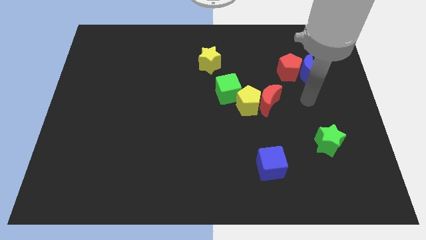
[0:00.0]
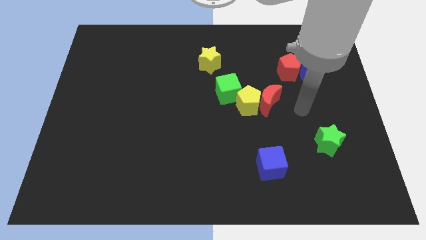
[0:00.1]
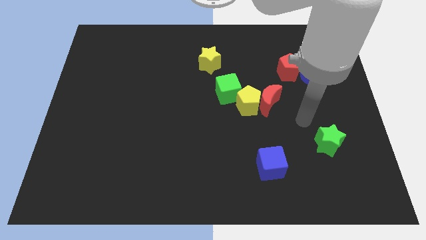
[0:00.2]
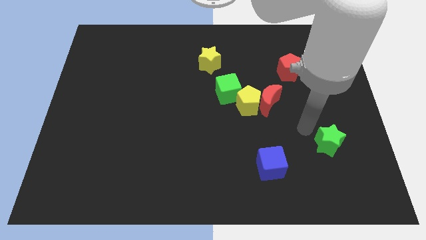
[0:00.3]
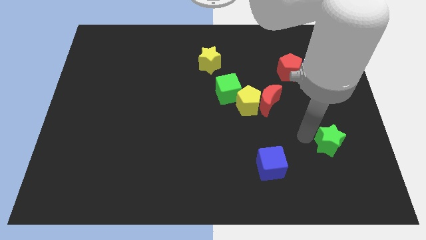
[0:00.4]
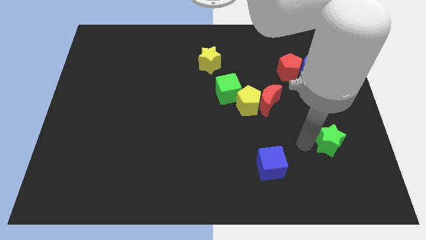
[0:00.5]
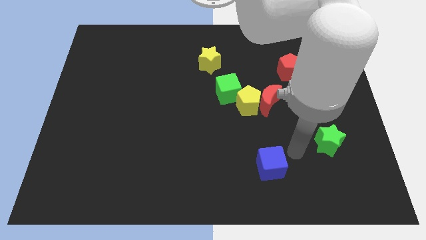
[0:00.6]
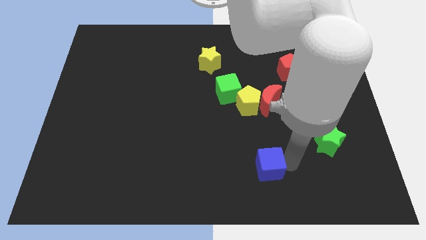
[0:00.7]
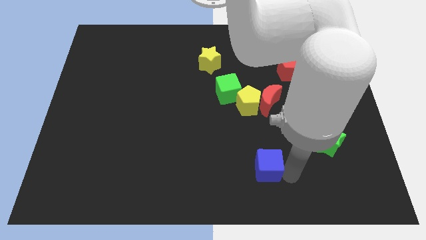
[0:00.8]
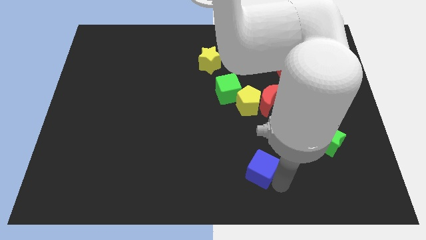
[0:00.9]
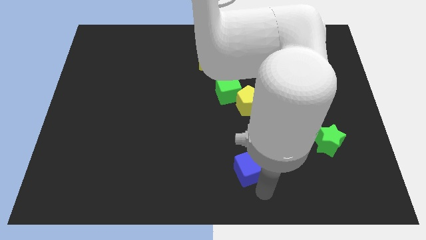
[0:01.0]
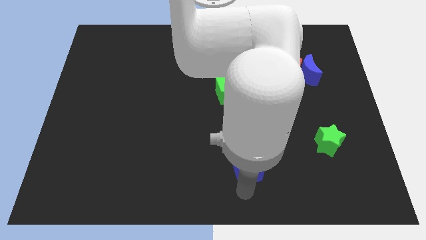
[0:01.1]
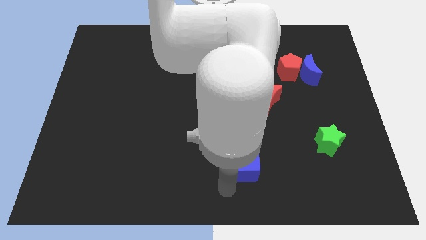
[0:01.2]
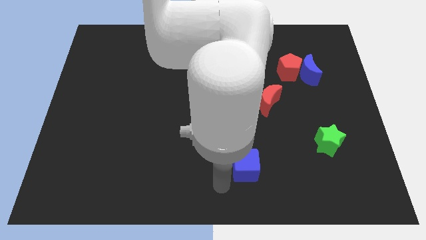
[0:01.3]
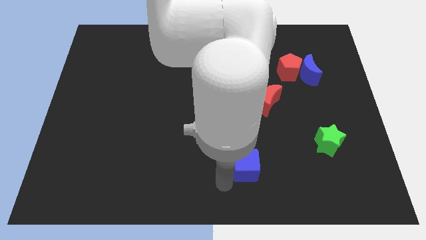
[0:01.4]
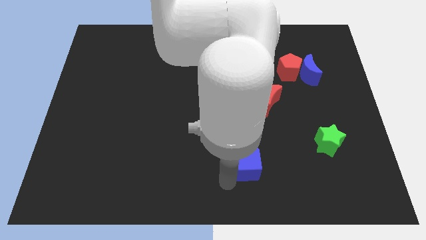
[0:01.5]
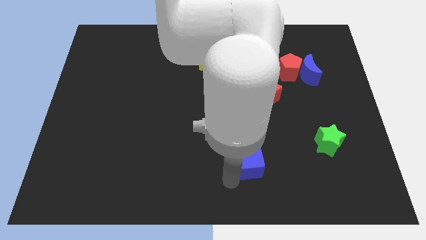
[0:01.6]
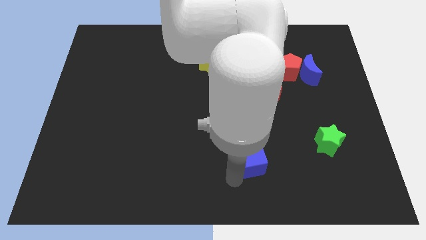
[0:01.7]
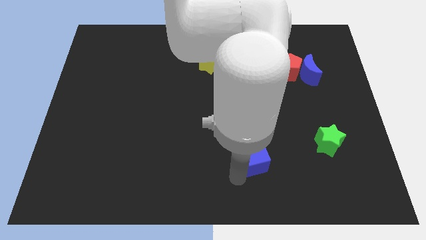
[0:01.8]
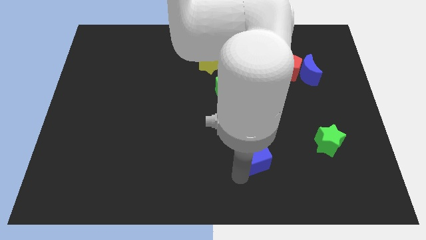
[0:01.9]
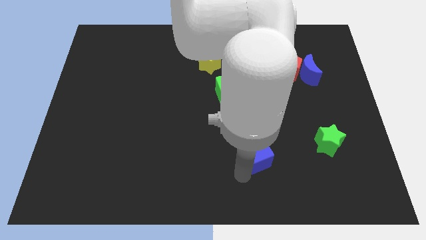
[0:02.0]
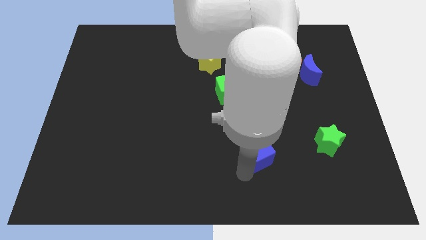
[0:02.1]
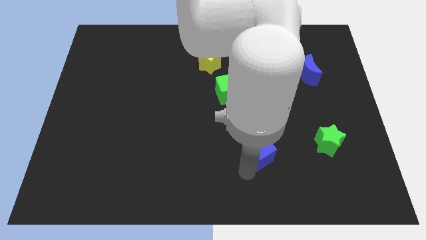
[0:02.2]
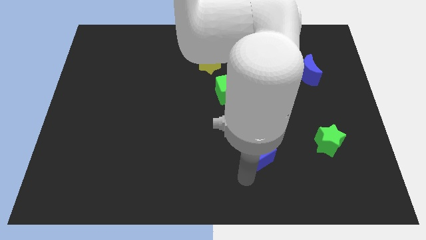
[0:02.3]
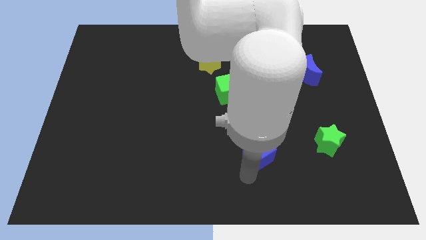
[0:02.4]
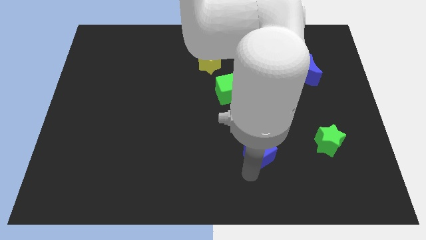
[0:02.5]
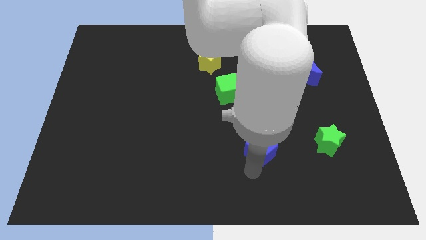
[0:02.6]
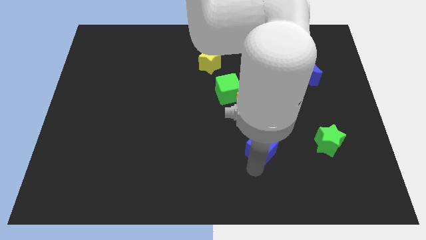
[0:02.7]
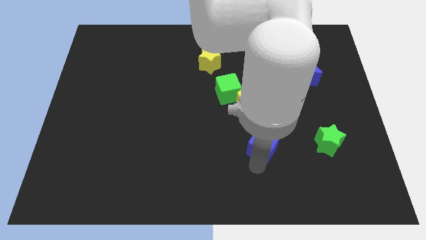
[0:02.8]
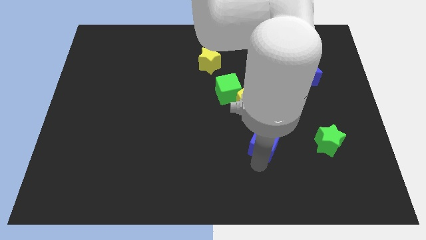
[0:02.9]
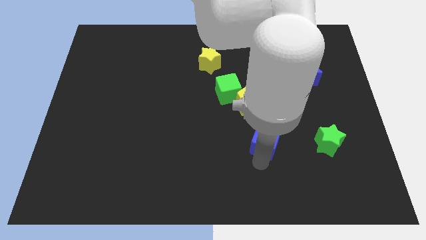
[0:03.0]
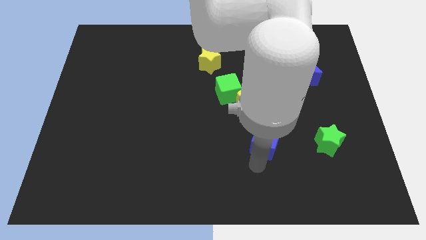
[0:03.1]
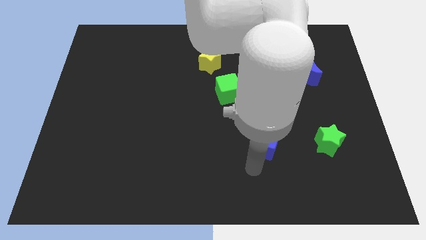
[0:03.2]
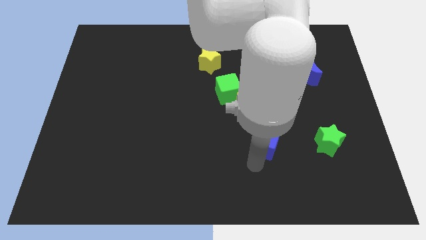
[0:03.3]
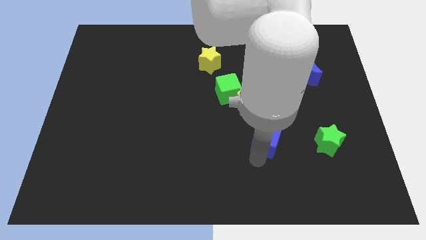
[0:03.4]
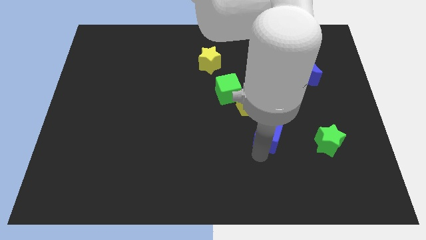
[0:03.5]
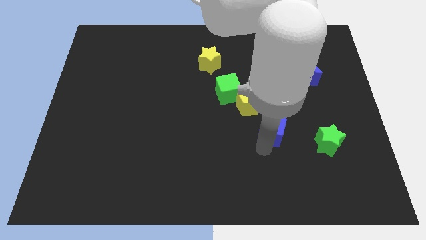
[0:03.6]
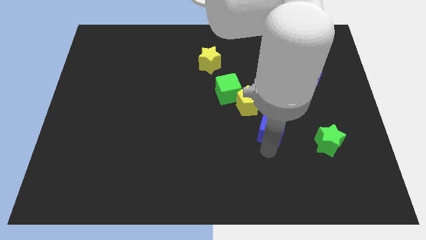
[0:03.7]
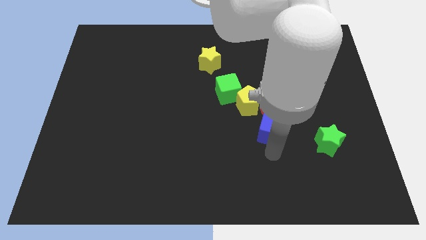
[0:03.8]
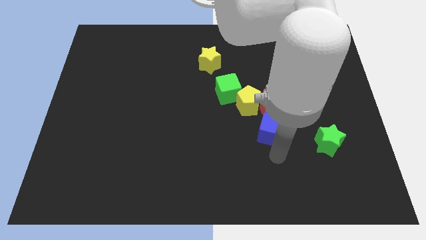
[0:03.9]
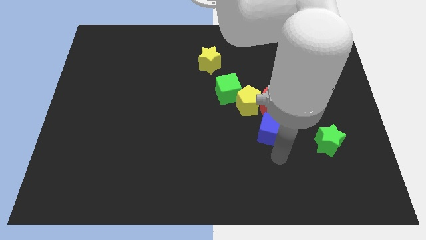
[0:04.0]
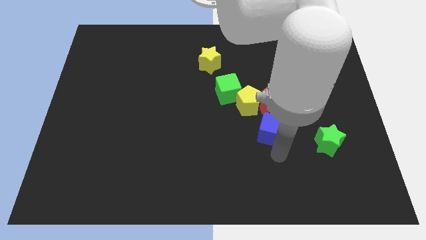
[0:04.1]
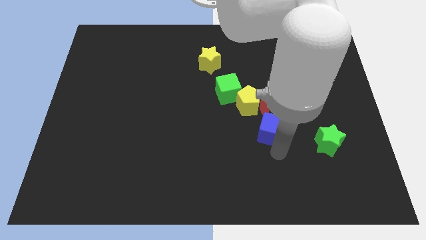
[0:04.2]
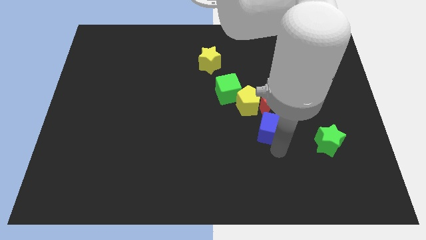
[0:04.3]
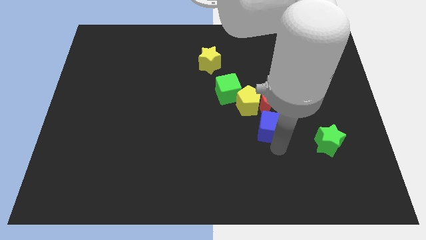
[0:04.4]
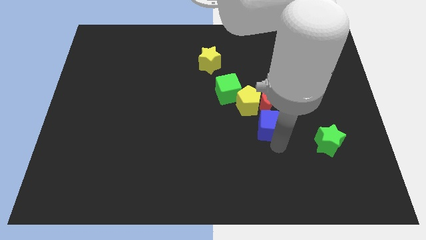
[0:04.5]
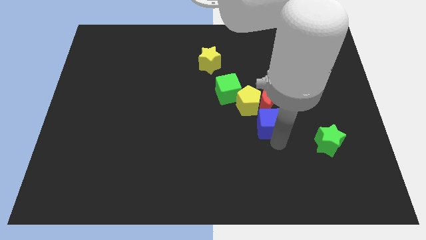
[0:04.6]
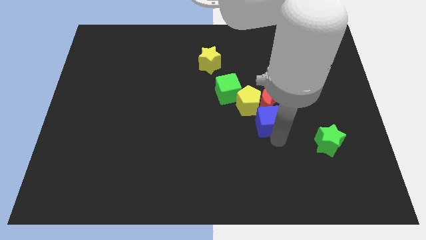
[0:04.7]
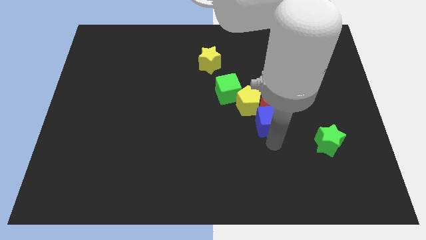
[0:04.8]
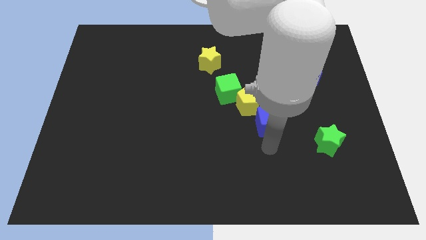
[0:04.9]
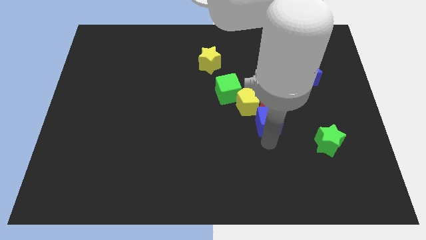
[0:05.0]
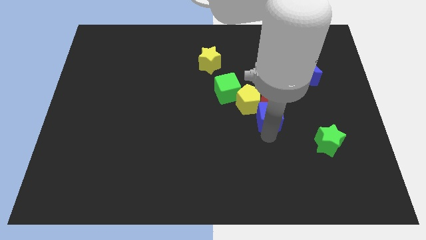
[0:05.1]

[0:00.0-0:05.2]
slide the blue cube to the red moon

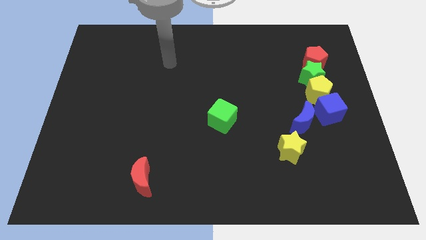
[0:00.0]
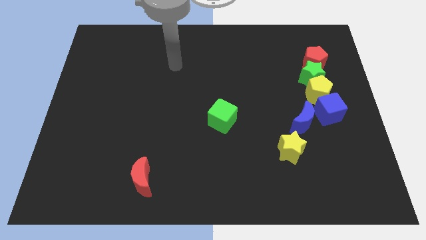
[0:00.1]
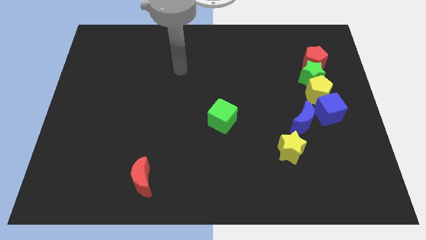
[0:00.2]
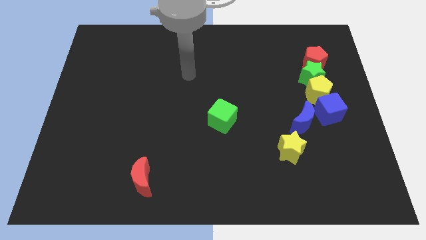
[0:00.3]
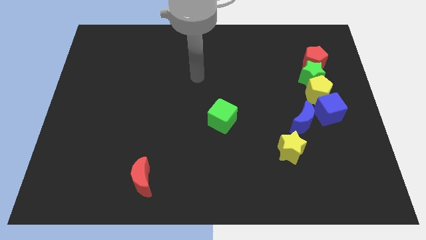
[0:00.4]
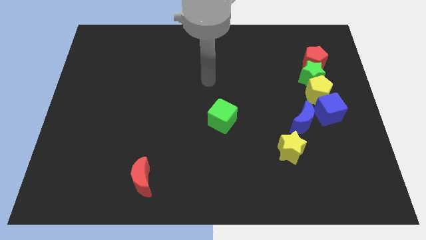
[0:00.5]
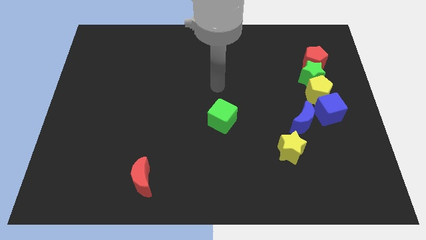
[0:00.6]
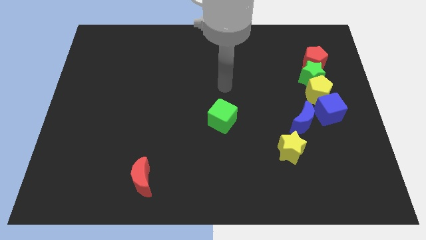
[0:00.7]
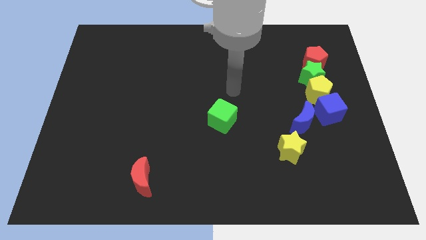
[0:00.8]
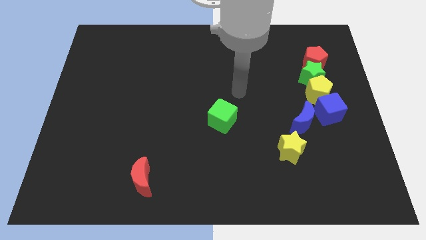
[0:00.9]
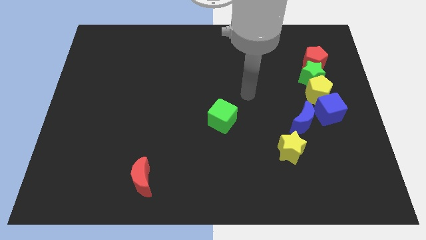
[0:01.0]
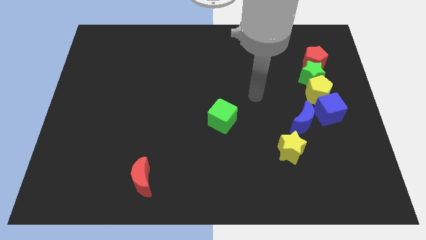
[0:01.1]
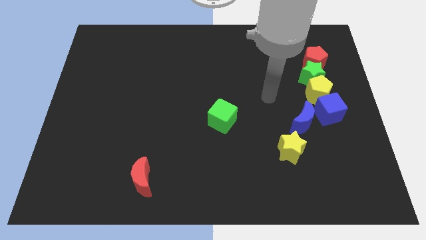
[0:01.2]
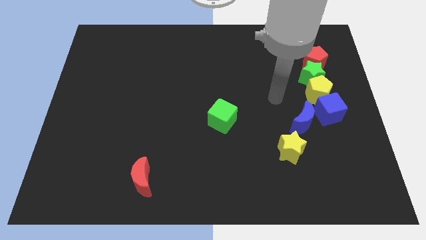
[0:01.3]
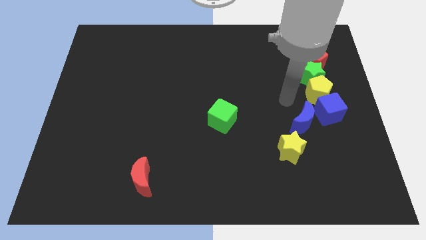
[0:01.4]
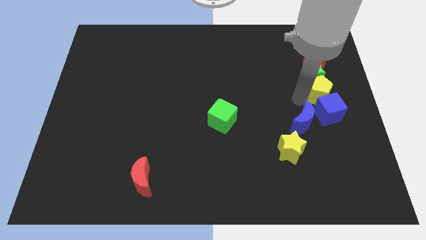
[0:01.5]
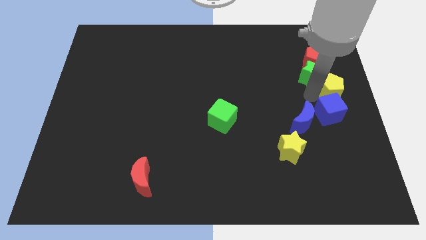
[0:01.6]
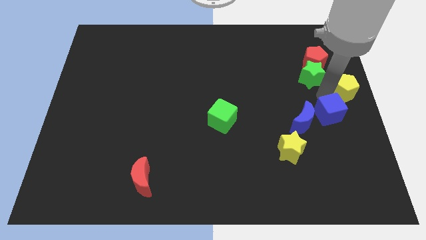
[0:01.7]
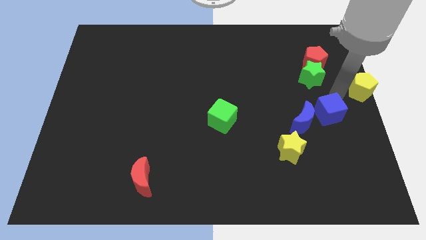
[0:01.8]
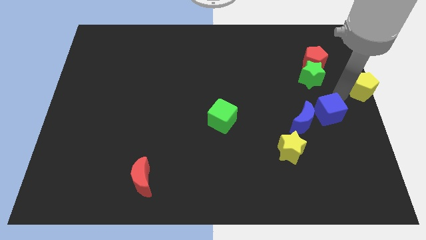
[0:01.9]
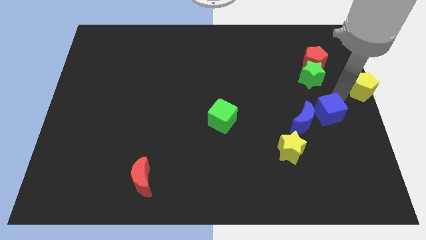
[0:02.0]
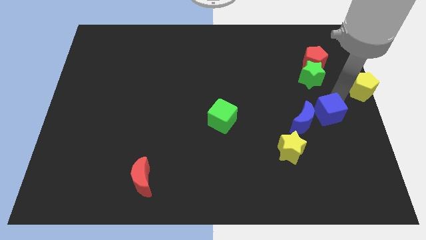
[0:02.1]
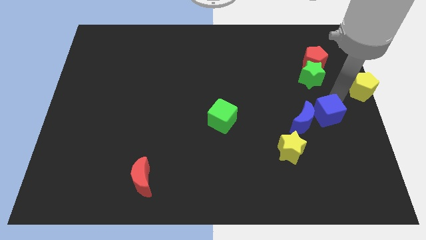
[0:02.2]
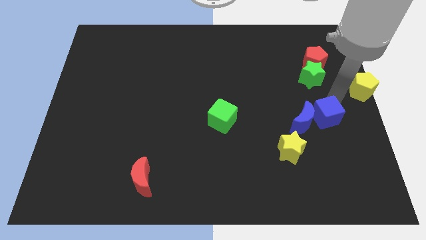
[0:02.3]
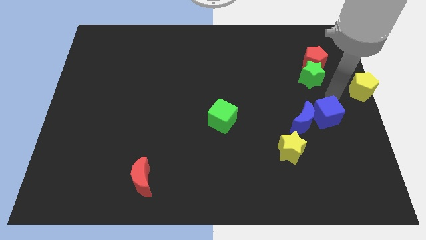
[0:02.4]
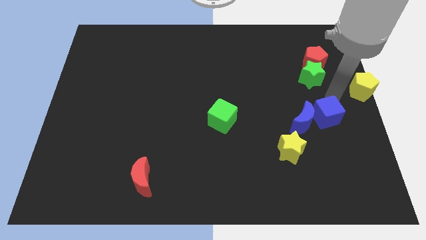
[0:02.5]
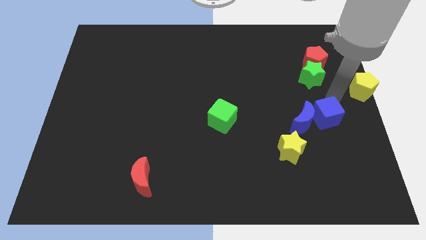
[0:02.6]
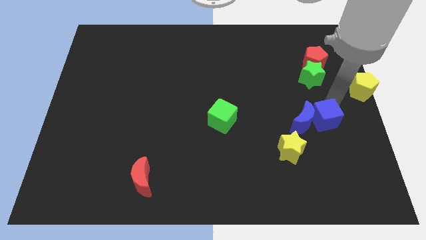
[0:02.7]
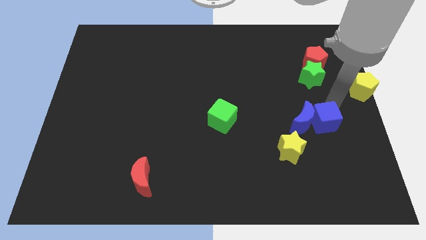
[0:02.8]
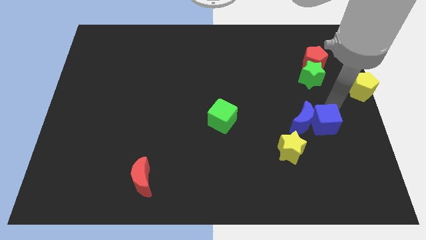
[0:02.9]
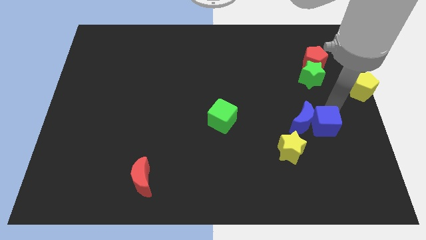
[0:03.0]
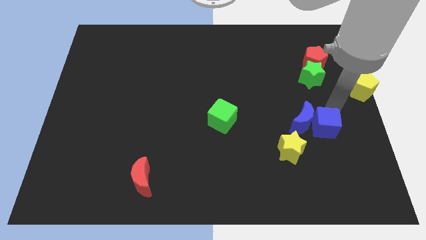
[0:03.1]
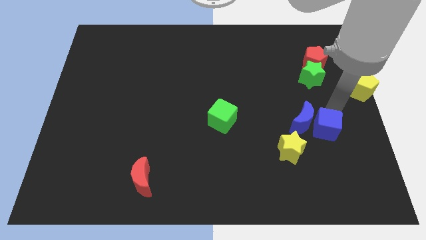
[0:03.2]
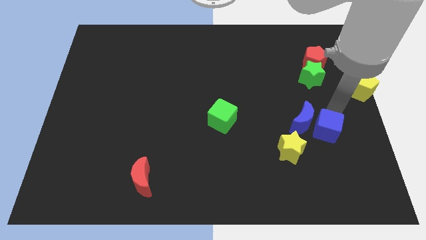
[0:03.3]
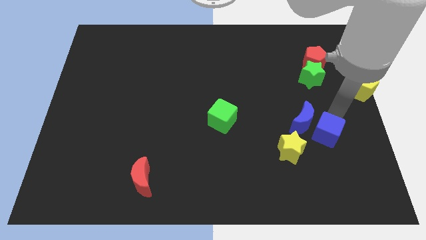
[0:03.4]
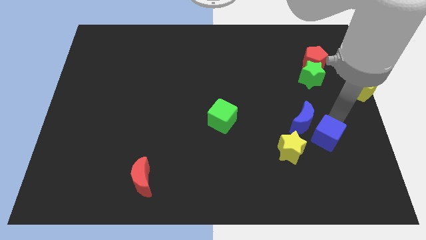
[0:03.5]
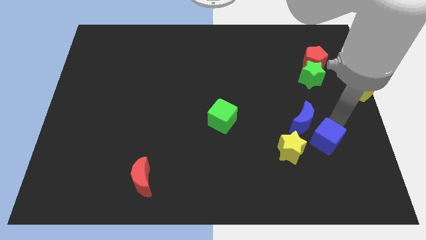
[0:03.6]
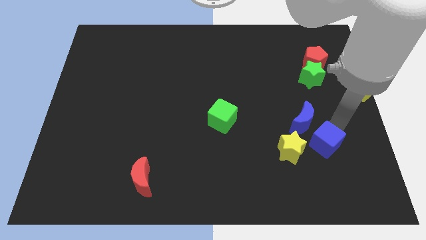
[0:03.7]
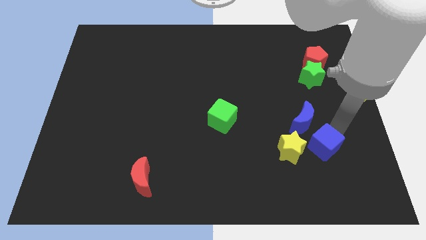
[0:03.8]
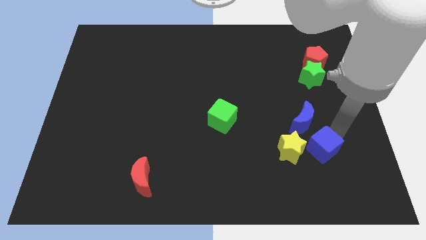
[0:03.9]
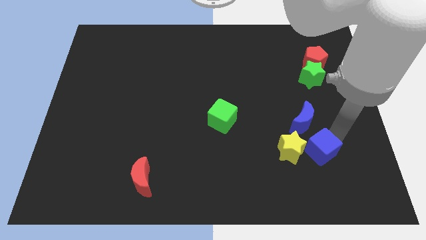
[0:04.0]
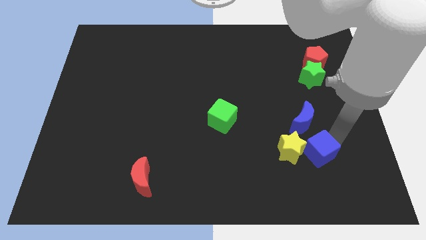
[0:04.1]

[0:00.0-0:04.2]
push the blue cube close to the yellow star
